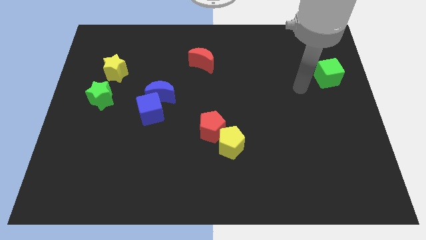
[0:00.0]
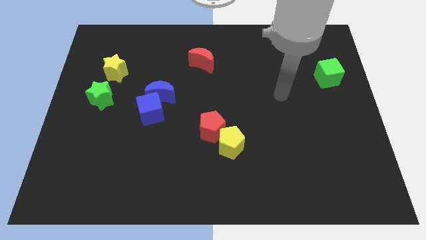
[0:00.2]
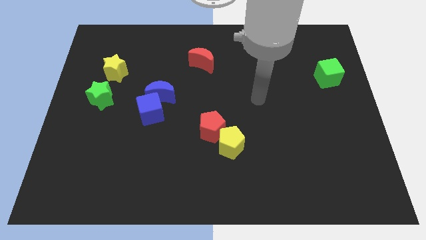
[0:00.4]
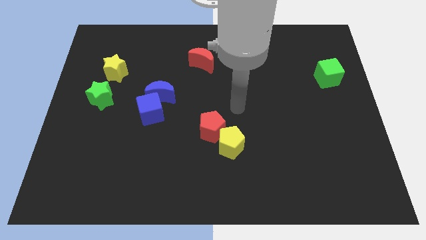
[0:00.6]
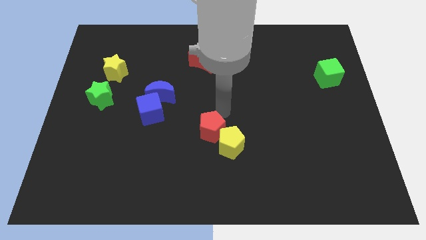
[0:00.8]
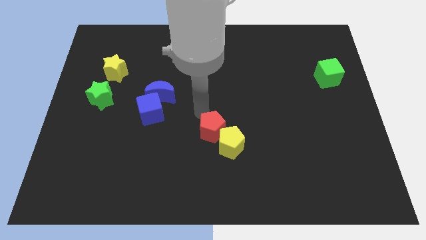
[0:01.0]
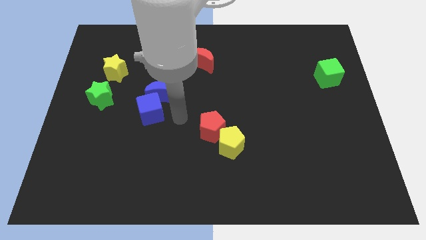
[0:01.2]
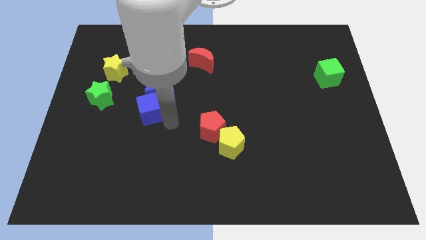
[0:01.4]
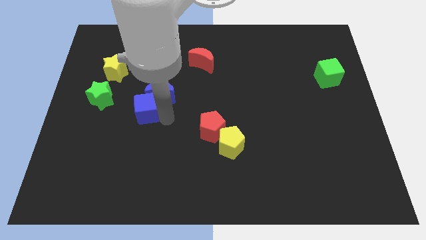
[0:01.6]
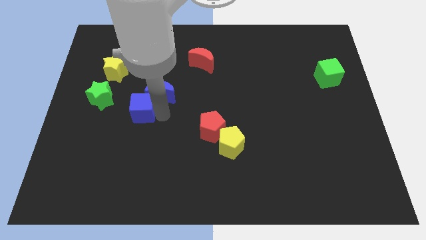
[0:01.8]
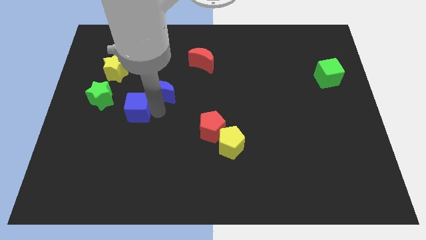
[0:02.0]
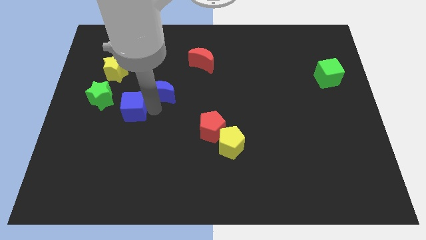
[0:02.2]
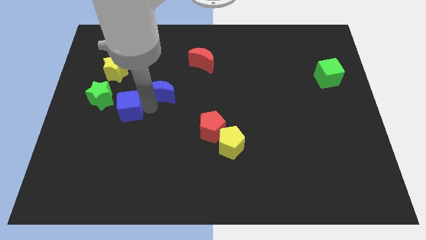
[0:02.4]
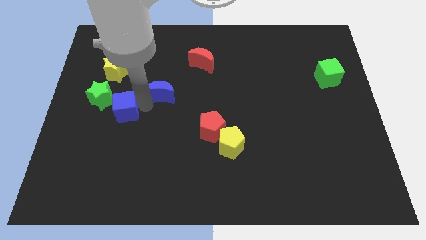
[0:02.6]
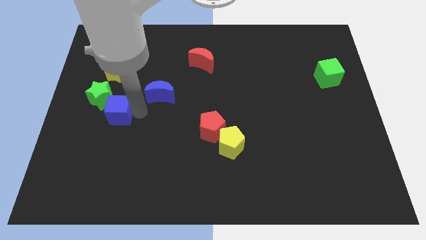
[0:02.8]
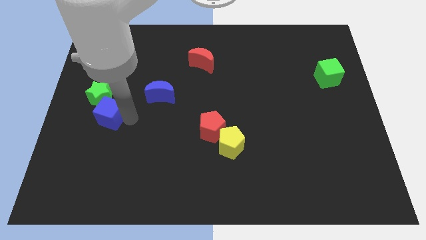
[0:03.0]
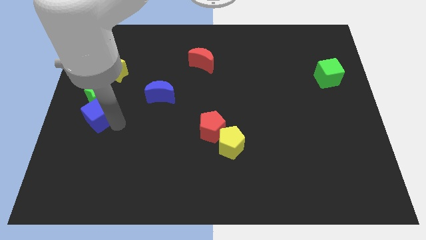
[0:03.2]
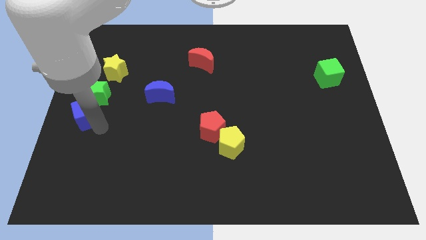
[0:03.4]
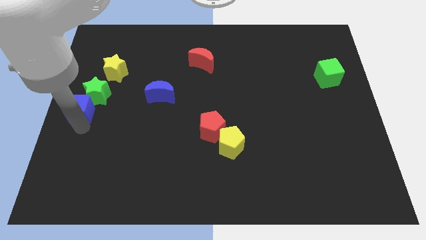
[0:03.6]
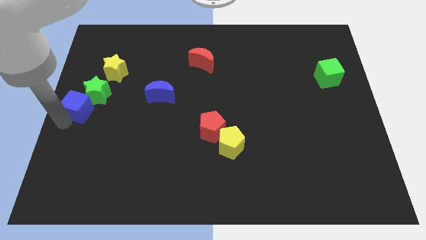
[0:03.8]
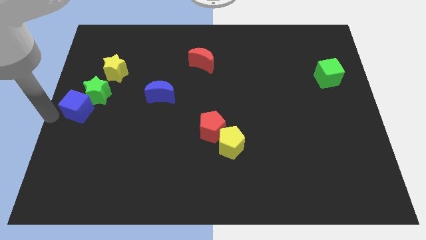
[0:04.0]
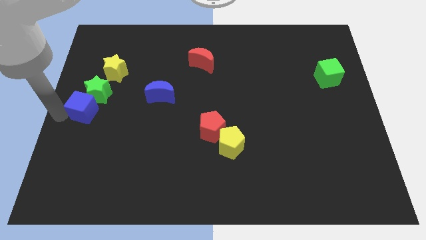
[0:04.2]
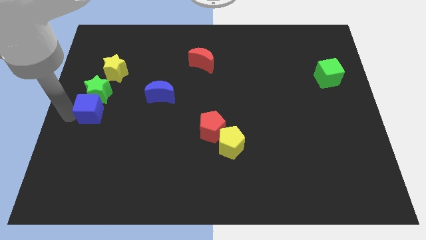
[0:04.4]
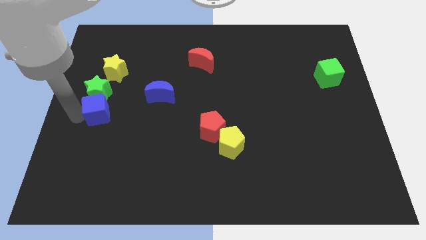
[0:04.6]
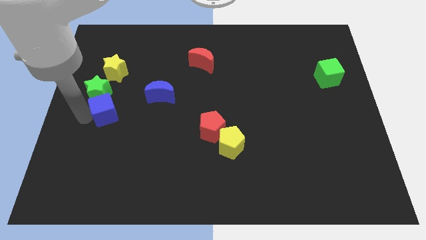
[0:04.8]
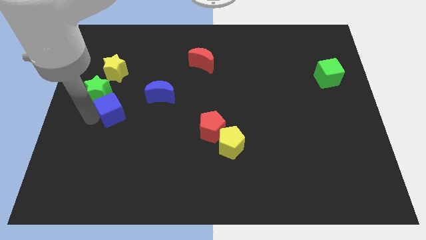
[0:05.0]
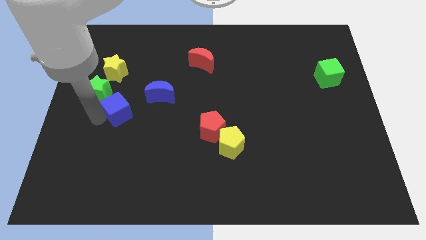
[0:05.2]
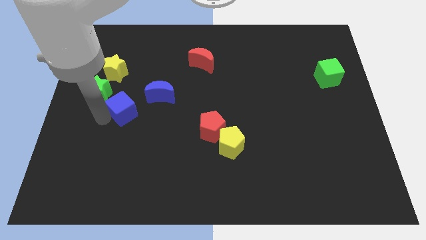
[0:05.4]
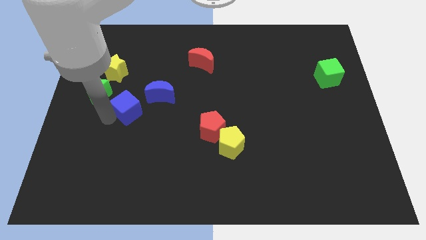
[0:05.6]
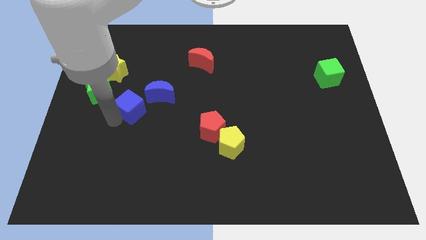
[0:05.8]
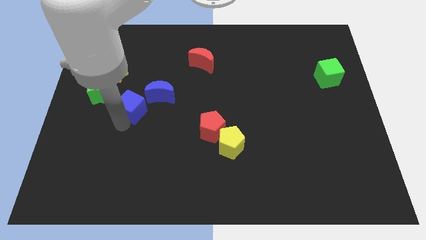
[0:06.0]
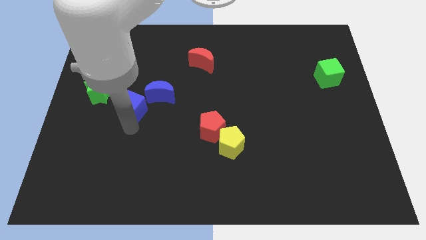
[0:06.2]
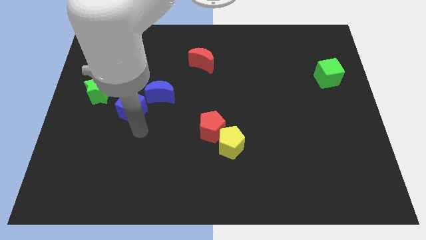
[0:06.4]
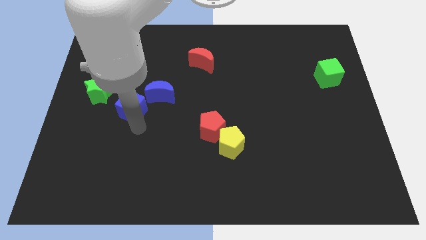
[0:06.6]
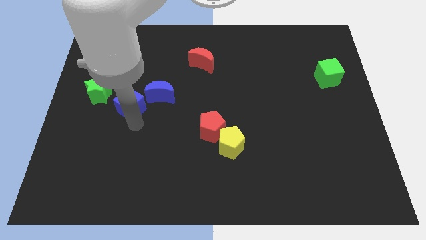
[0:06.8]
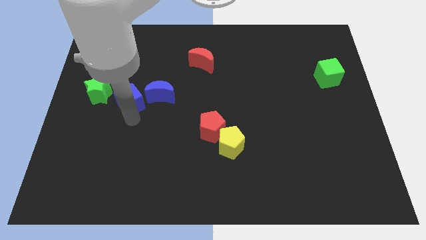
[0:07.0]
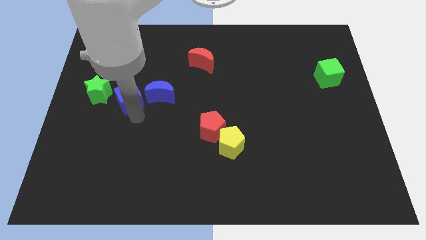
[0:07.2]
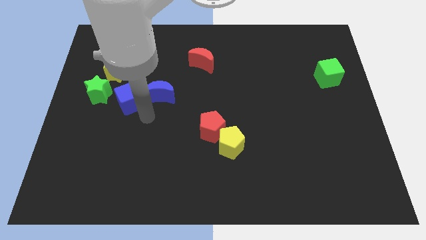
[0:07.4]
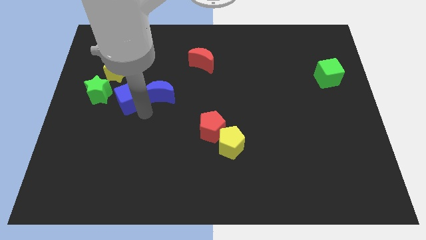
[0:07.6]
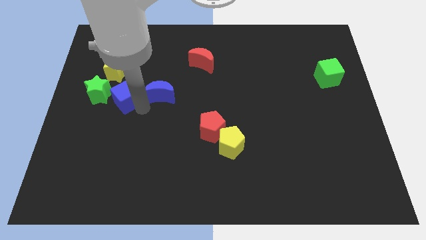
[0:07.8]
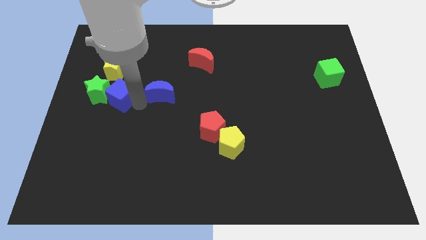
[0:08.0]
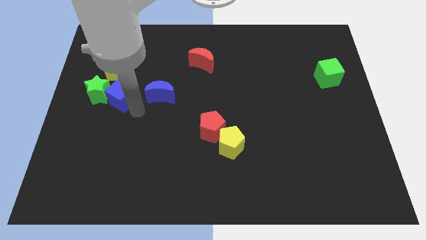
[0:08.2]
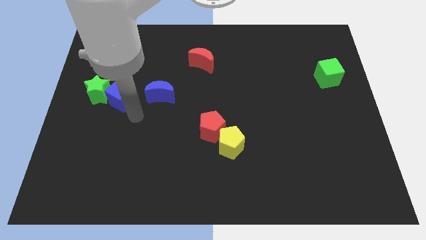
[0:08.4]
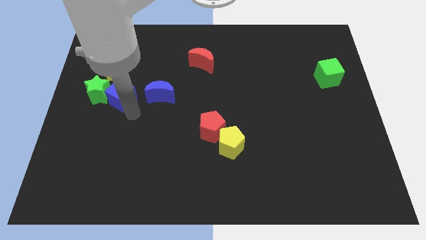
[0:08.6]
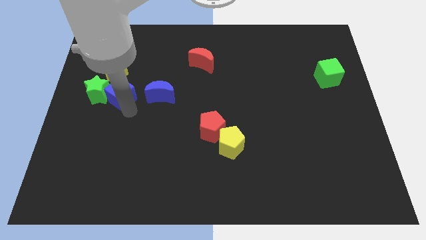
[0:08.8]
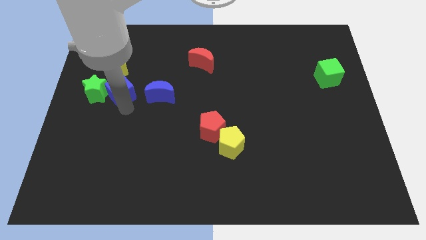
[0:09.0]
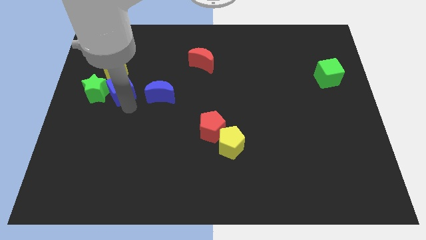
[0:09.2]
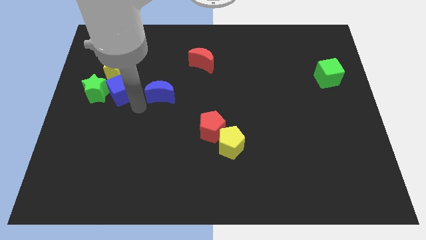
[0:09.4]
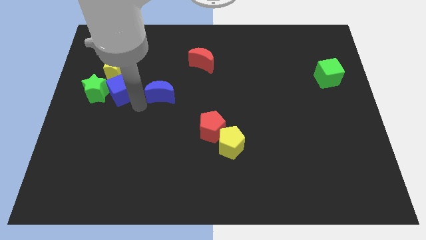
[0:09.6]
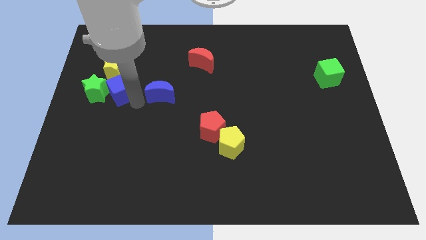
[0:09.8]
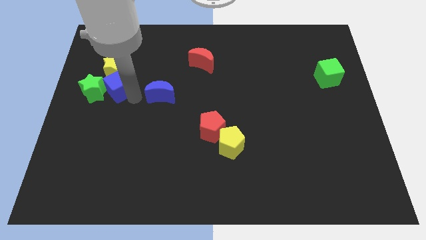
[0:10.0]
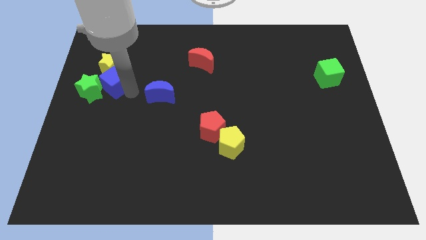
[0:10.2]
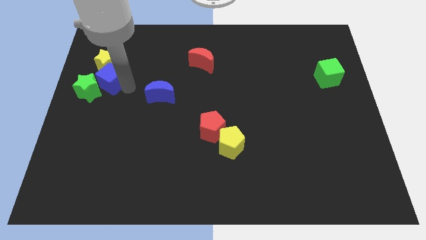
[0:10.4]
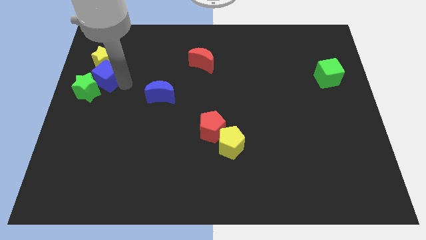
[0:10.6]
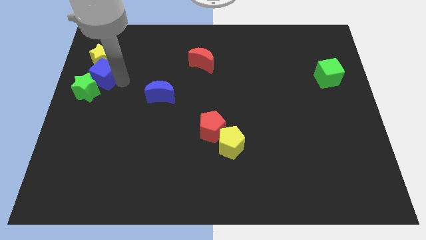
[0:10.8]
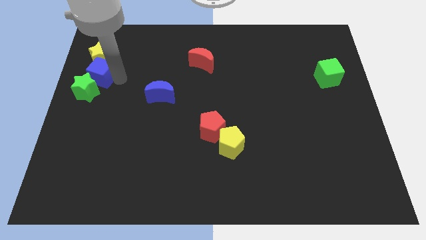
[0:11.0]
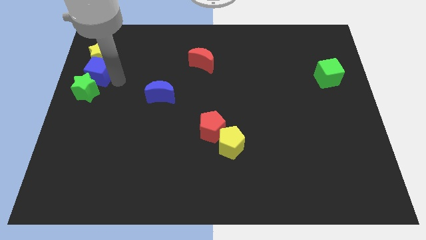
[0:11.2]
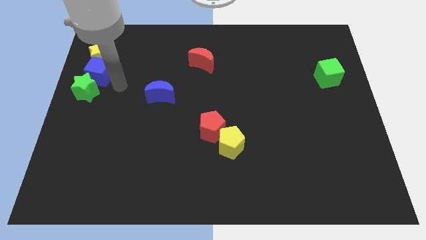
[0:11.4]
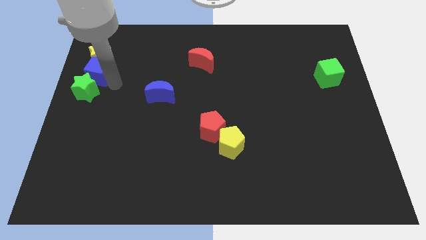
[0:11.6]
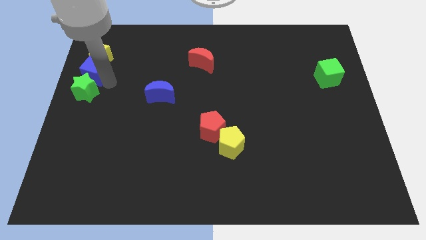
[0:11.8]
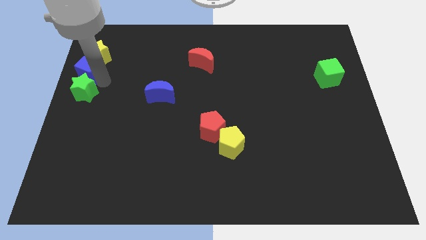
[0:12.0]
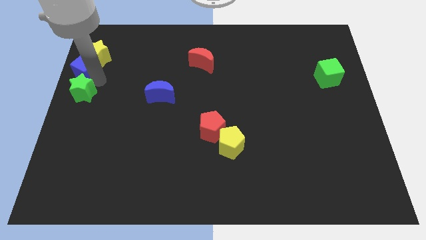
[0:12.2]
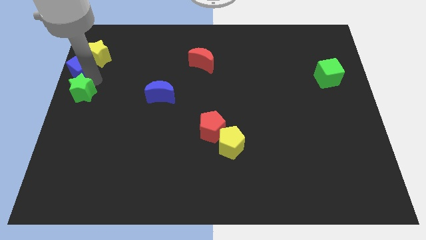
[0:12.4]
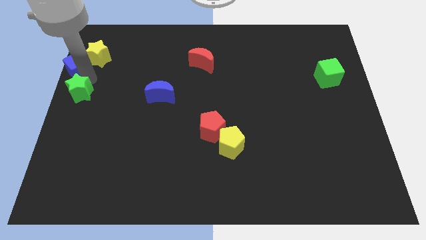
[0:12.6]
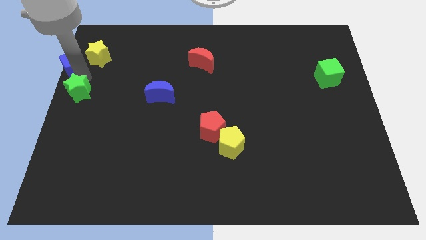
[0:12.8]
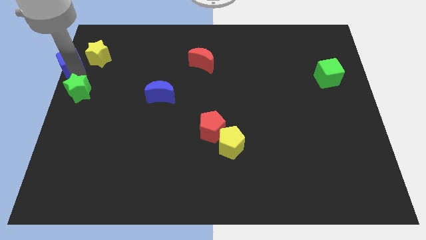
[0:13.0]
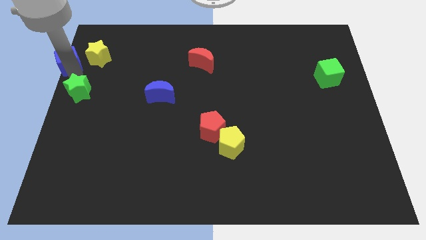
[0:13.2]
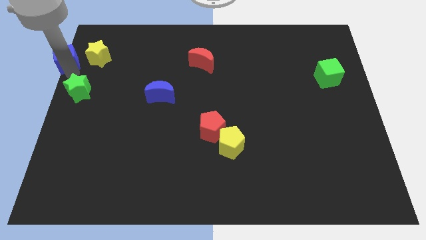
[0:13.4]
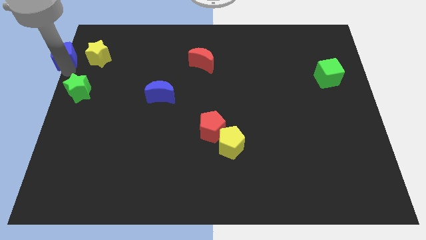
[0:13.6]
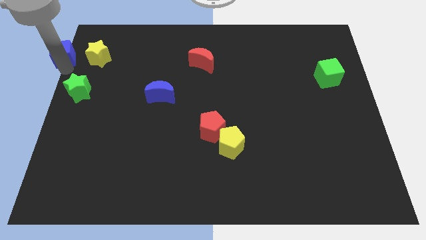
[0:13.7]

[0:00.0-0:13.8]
put the blue cube to the top left
